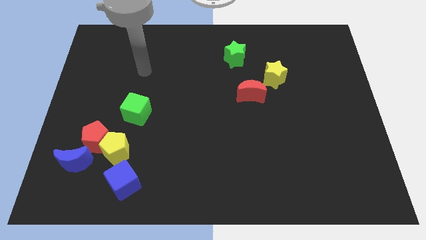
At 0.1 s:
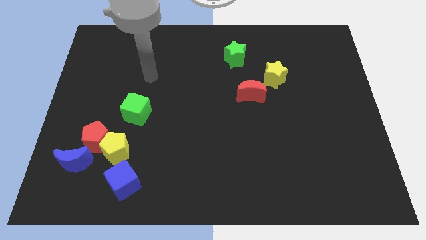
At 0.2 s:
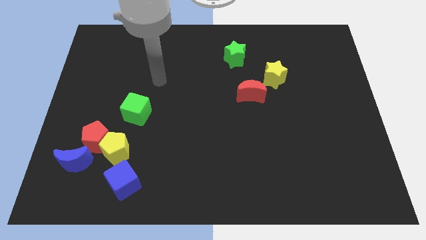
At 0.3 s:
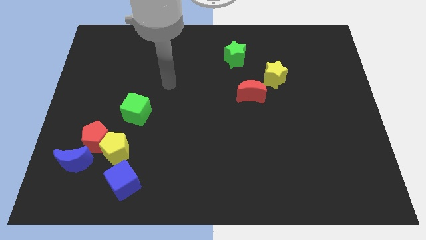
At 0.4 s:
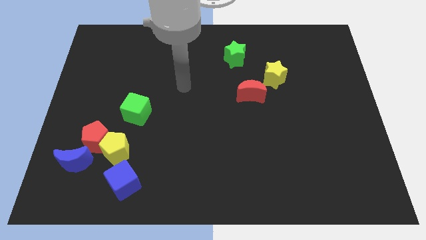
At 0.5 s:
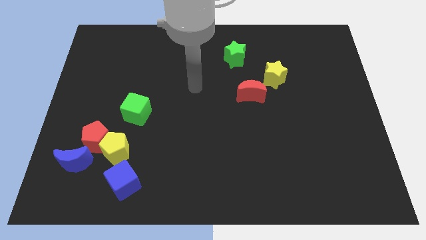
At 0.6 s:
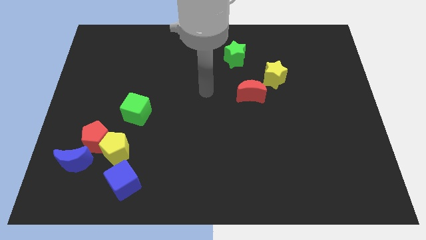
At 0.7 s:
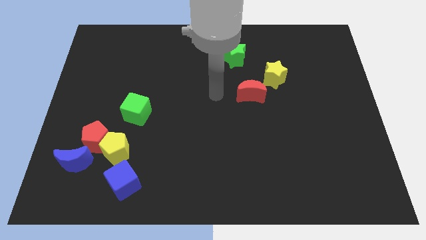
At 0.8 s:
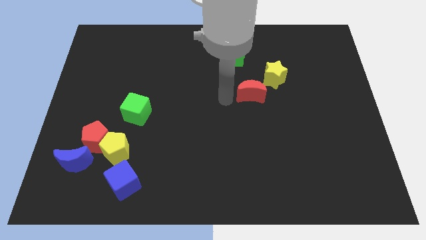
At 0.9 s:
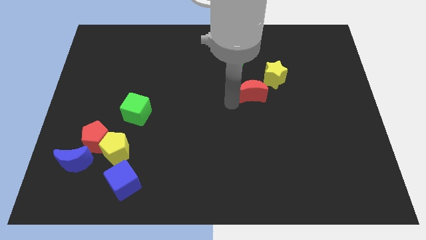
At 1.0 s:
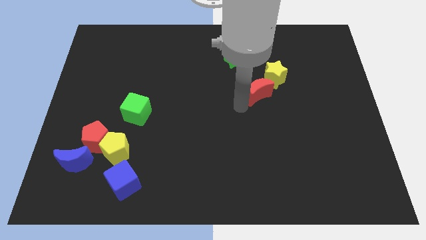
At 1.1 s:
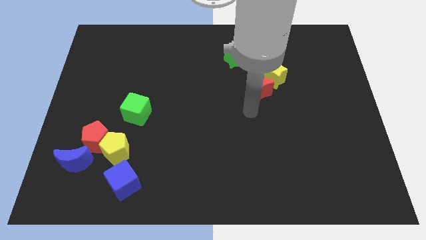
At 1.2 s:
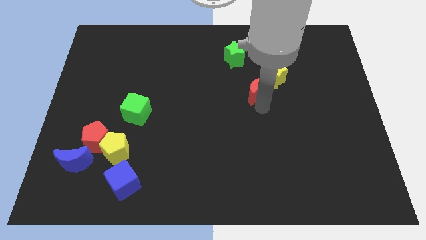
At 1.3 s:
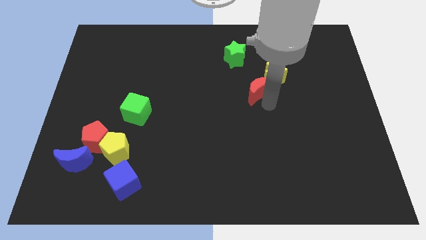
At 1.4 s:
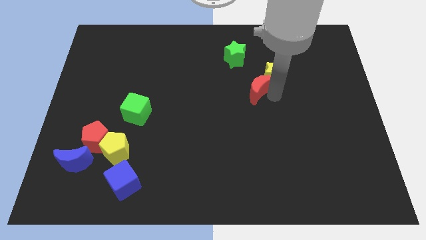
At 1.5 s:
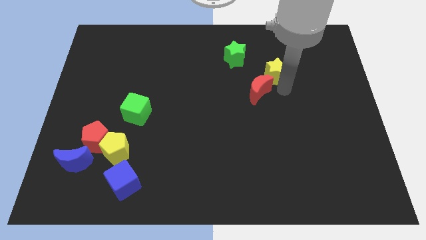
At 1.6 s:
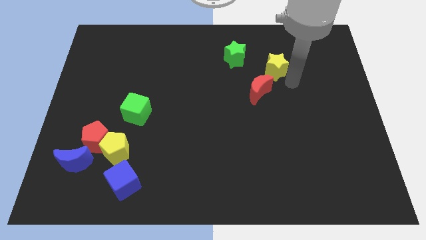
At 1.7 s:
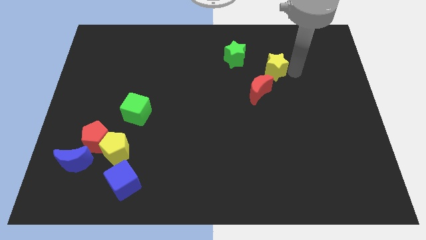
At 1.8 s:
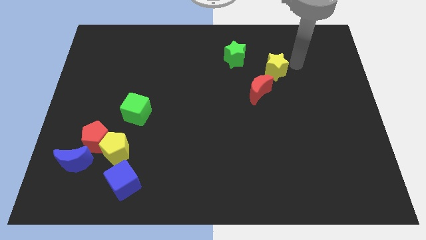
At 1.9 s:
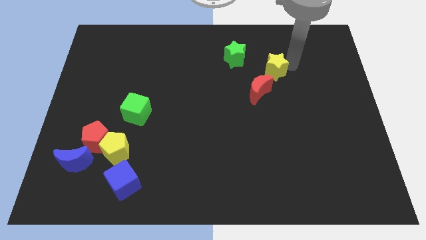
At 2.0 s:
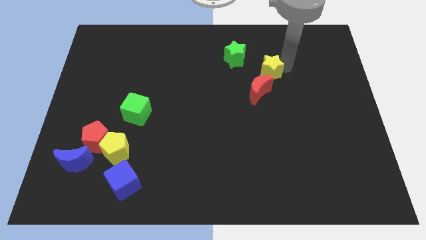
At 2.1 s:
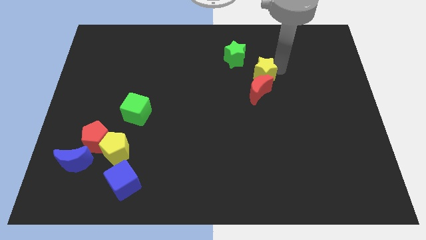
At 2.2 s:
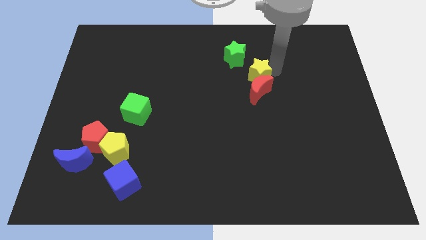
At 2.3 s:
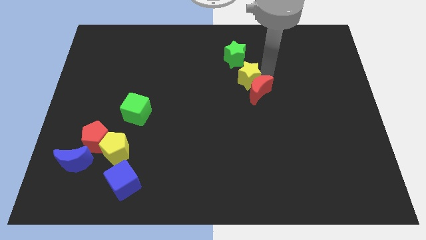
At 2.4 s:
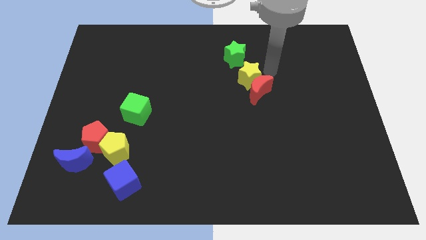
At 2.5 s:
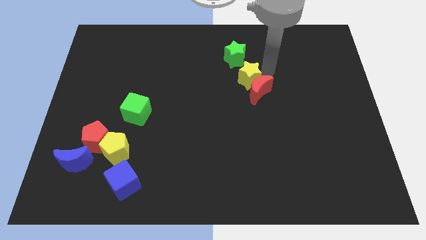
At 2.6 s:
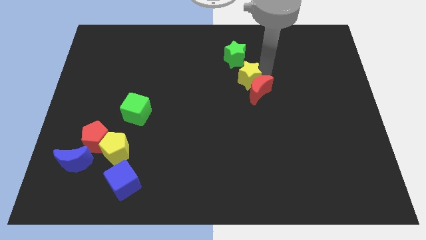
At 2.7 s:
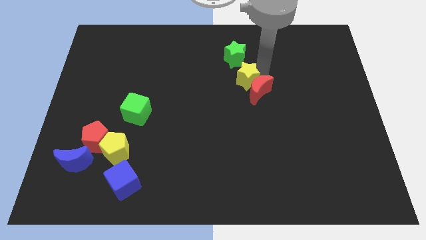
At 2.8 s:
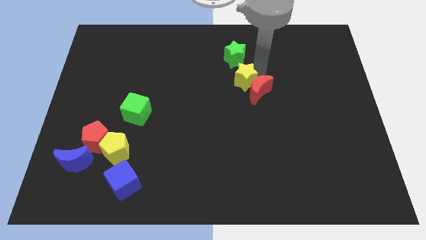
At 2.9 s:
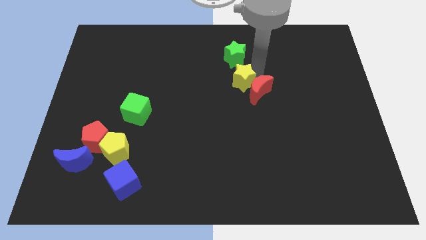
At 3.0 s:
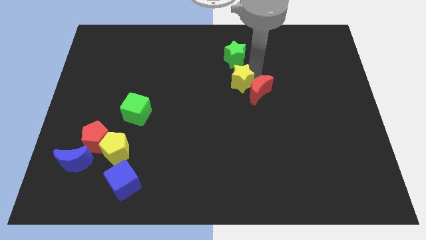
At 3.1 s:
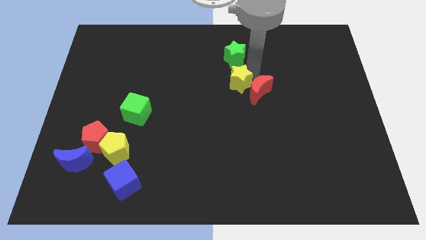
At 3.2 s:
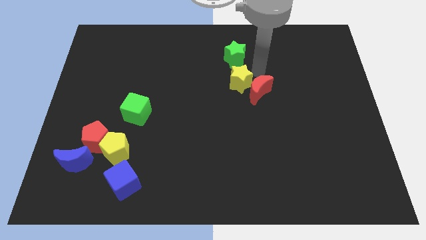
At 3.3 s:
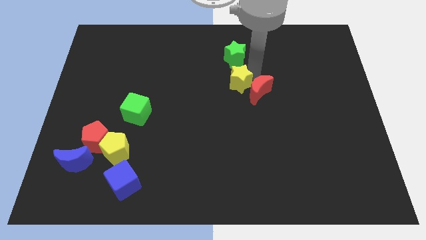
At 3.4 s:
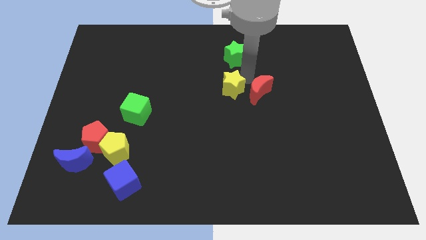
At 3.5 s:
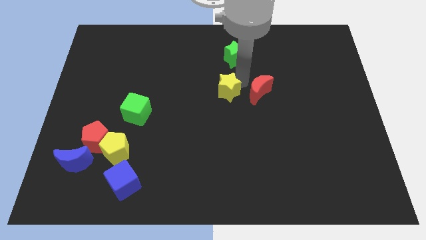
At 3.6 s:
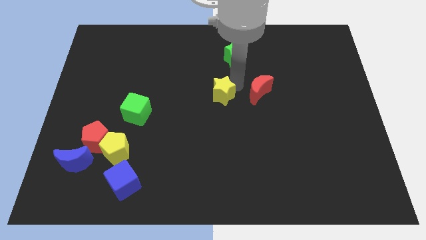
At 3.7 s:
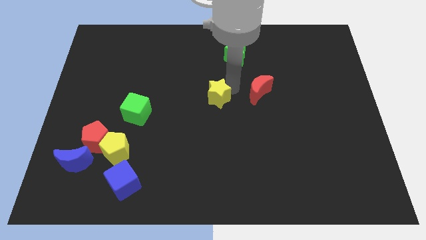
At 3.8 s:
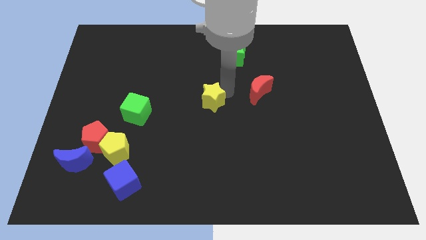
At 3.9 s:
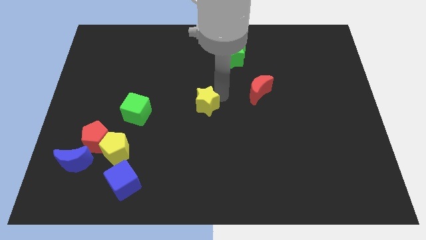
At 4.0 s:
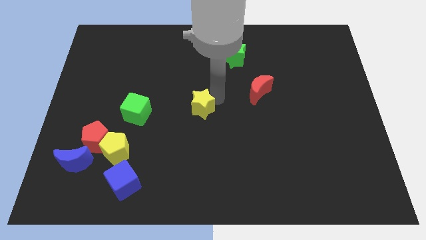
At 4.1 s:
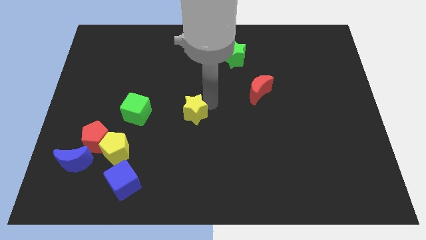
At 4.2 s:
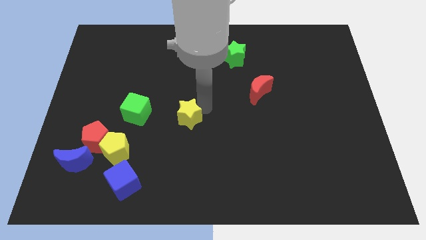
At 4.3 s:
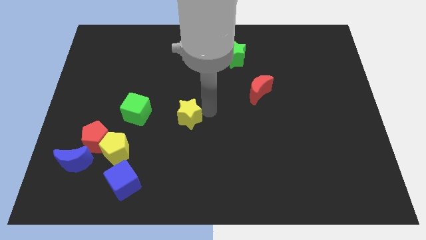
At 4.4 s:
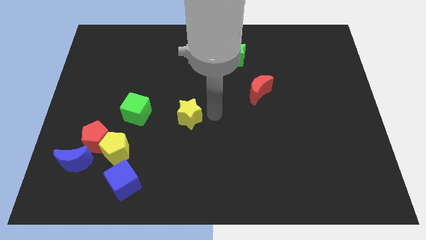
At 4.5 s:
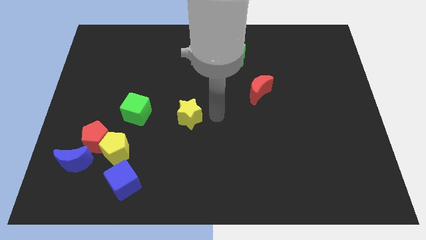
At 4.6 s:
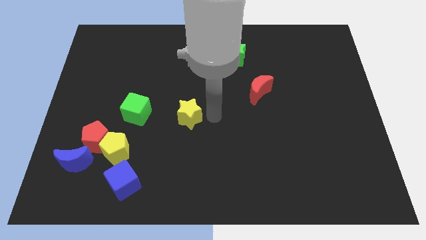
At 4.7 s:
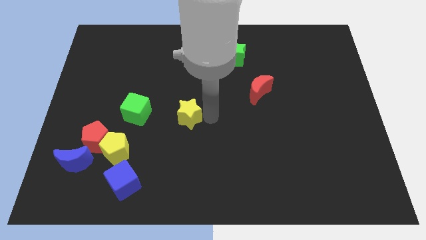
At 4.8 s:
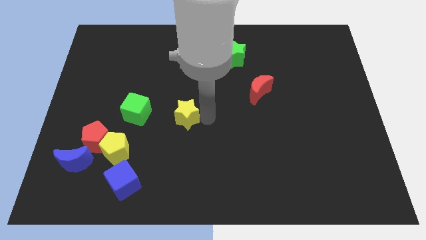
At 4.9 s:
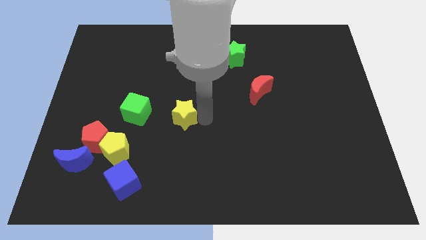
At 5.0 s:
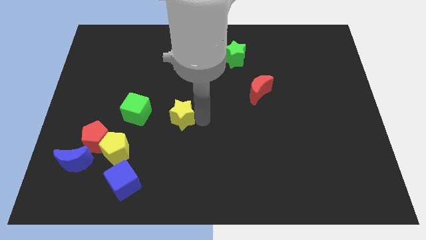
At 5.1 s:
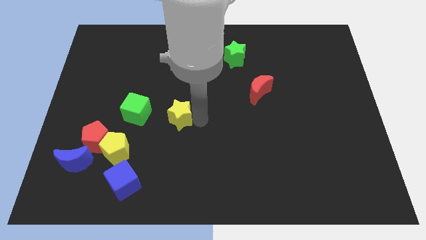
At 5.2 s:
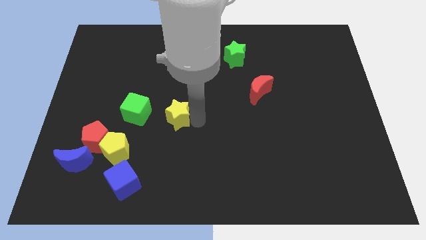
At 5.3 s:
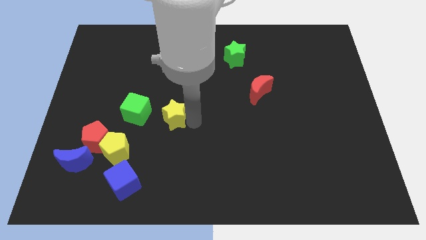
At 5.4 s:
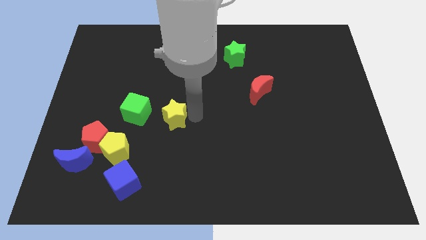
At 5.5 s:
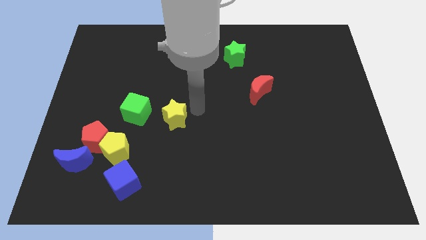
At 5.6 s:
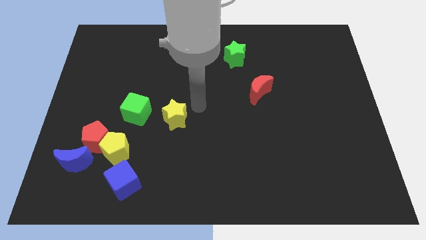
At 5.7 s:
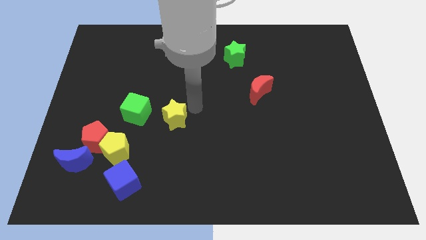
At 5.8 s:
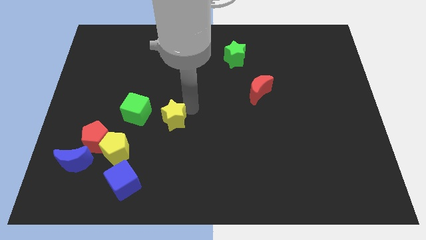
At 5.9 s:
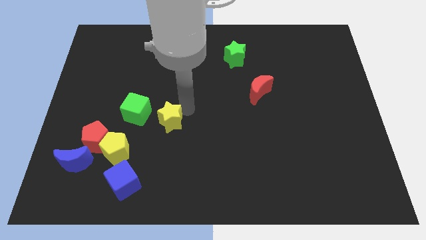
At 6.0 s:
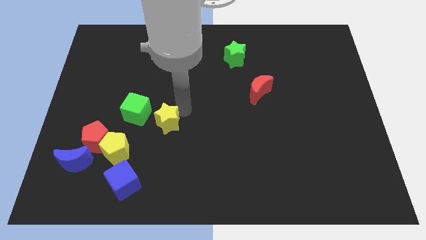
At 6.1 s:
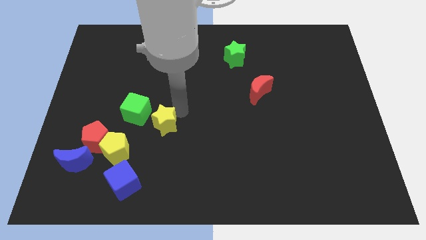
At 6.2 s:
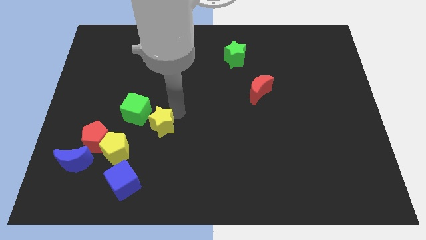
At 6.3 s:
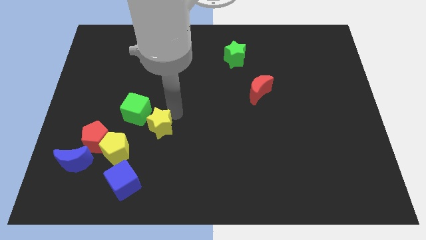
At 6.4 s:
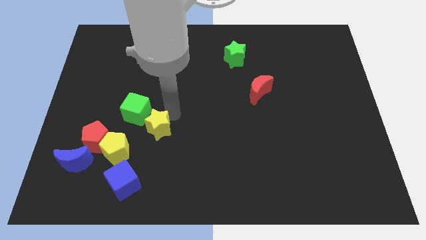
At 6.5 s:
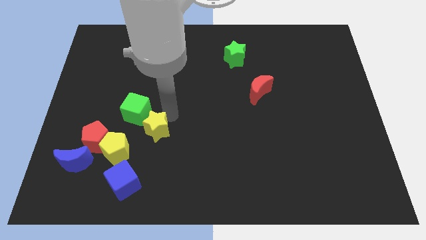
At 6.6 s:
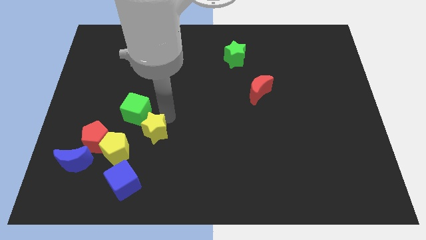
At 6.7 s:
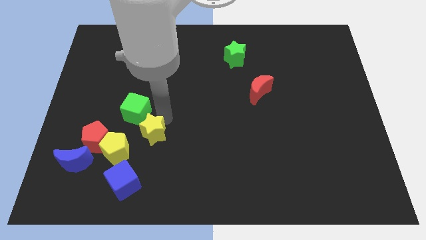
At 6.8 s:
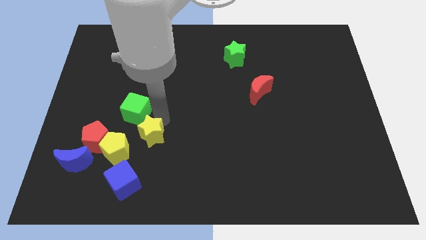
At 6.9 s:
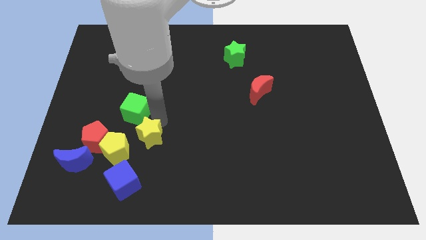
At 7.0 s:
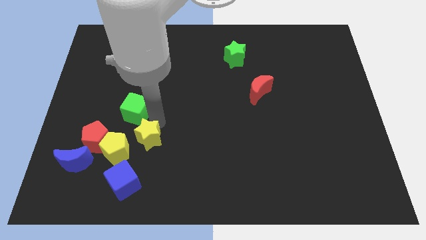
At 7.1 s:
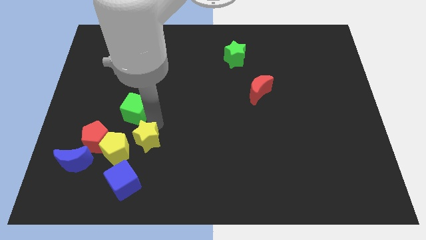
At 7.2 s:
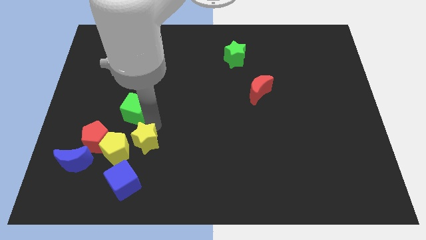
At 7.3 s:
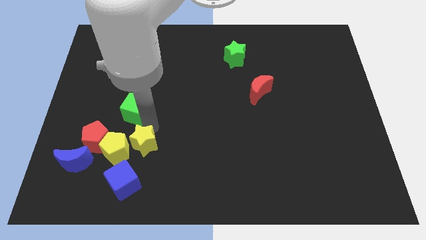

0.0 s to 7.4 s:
push the yellow star towards the yellow pentagon
